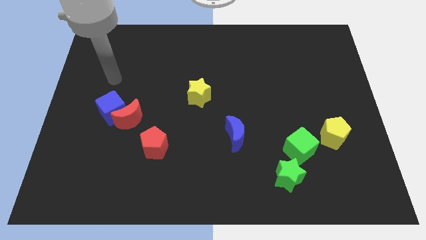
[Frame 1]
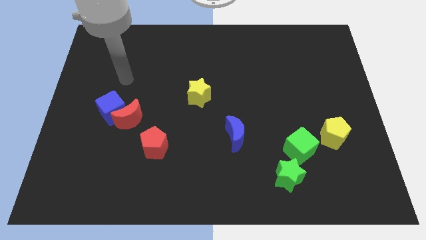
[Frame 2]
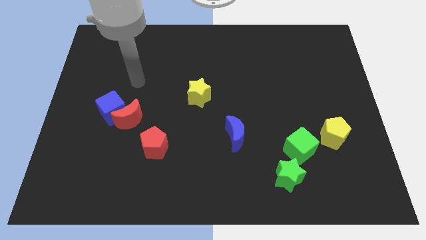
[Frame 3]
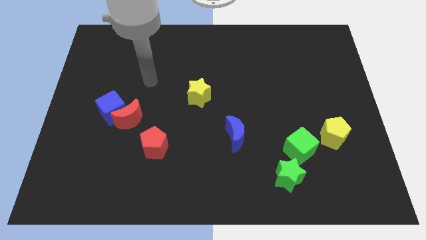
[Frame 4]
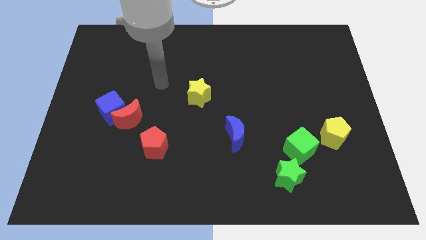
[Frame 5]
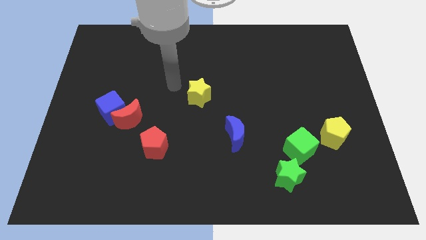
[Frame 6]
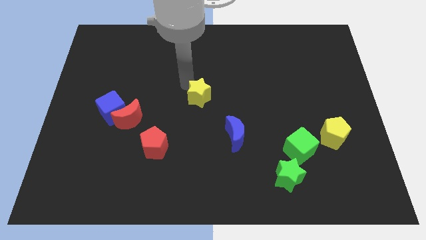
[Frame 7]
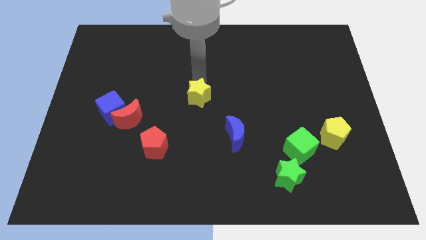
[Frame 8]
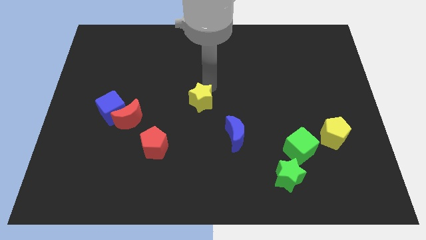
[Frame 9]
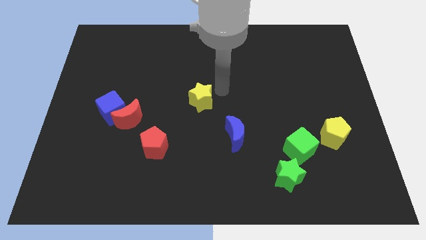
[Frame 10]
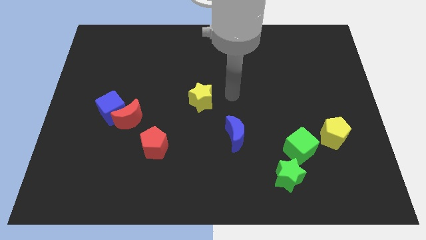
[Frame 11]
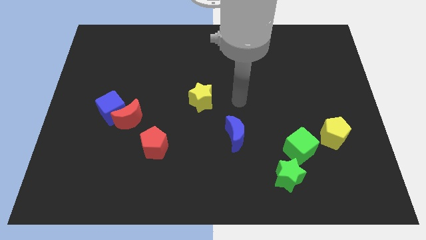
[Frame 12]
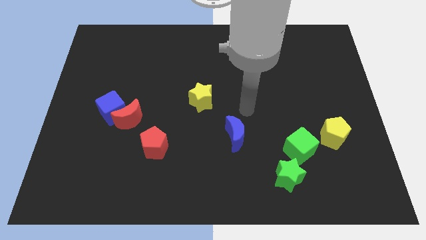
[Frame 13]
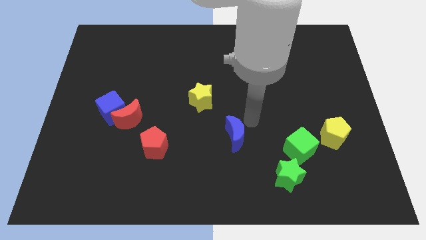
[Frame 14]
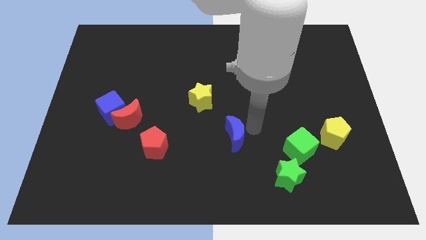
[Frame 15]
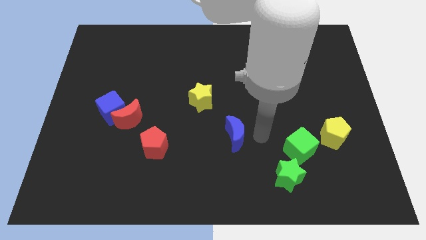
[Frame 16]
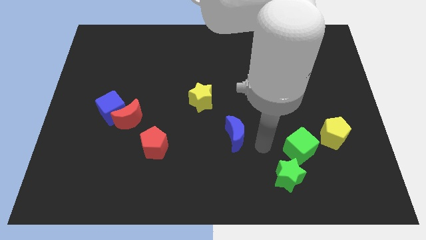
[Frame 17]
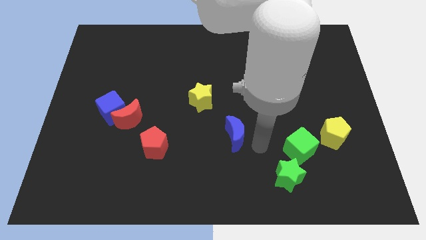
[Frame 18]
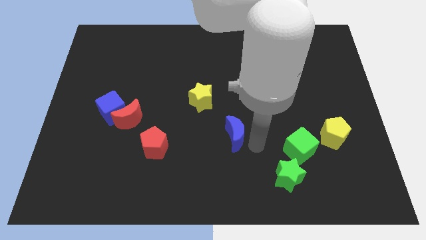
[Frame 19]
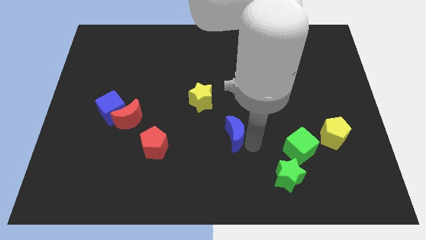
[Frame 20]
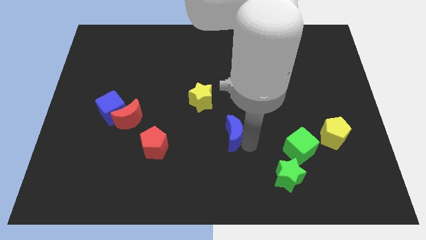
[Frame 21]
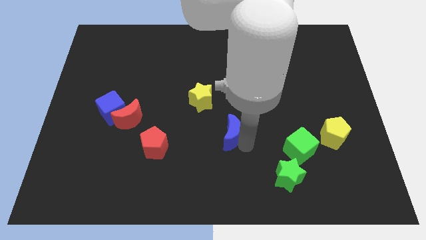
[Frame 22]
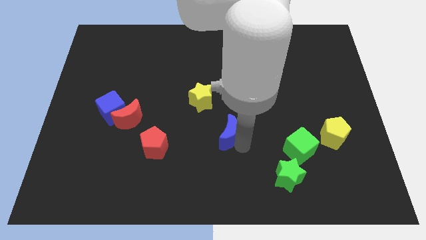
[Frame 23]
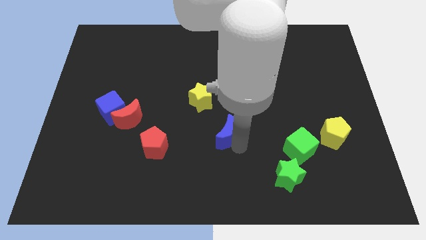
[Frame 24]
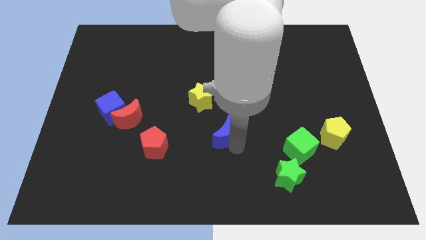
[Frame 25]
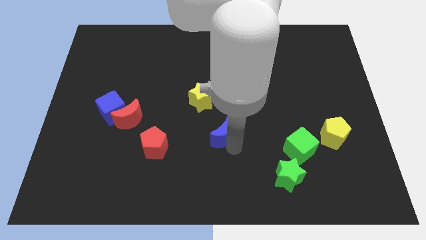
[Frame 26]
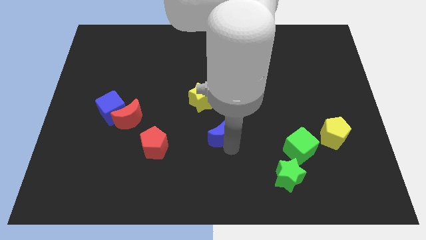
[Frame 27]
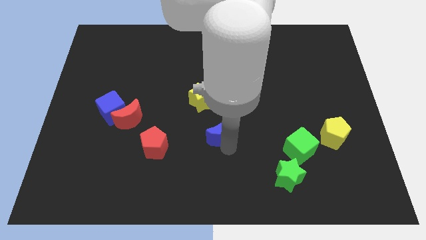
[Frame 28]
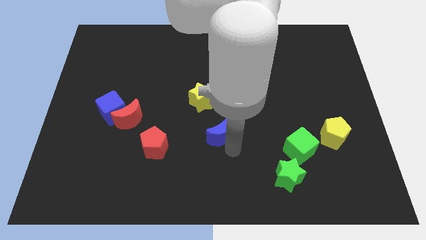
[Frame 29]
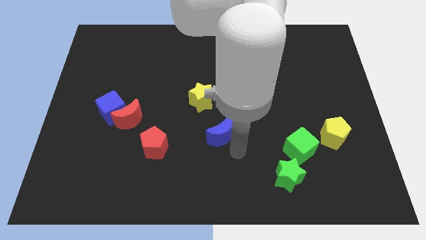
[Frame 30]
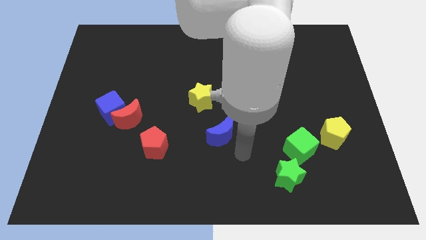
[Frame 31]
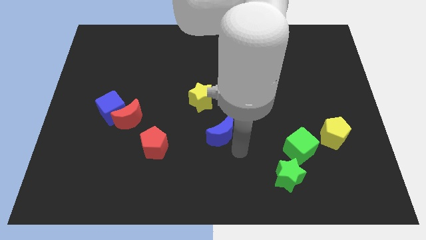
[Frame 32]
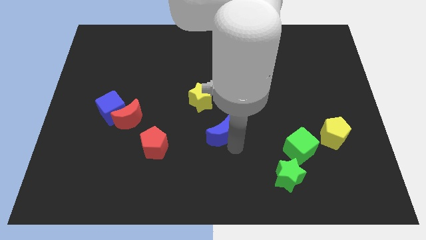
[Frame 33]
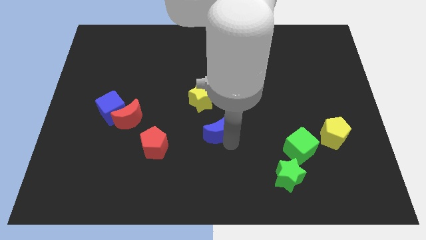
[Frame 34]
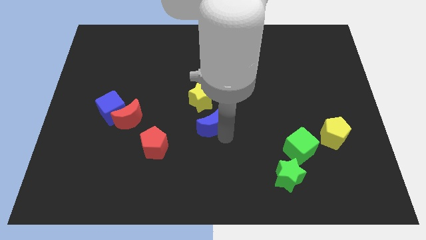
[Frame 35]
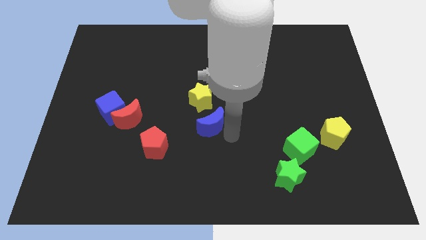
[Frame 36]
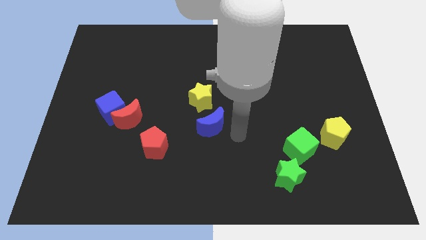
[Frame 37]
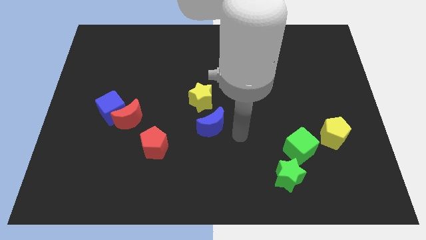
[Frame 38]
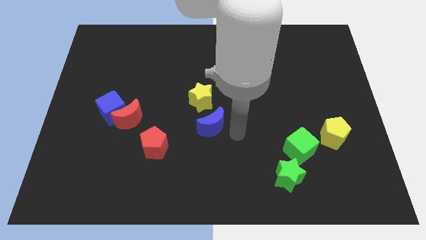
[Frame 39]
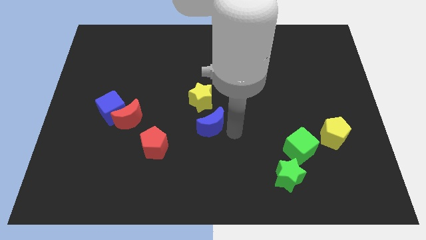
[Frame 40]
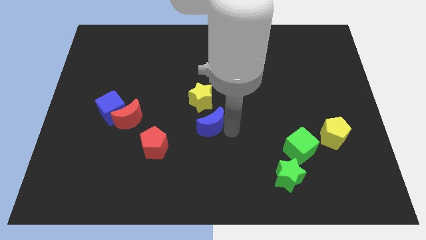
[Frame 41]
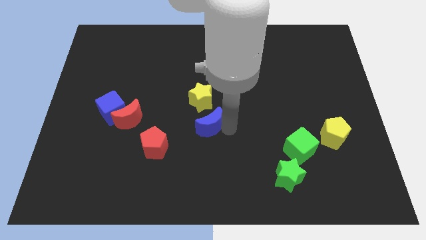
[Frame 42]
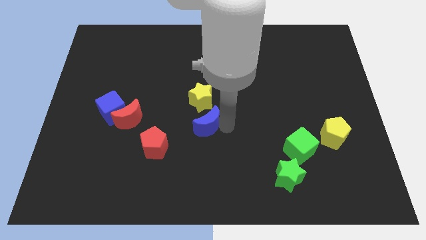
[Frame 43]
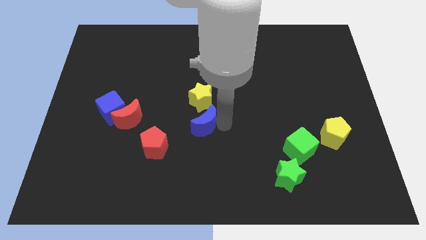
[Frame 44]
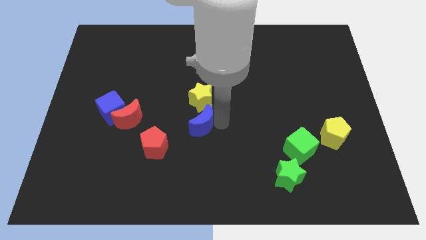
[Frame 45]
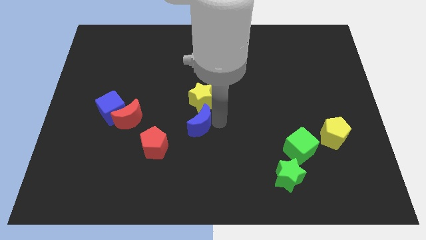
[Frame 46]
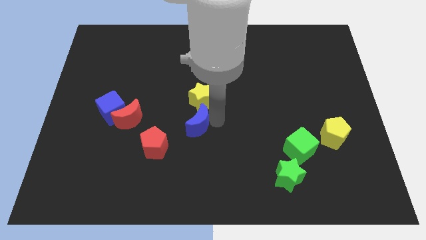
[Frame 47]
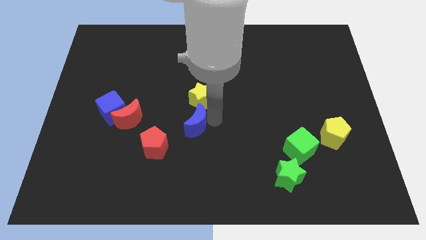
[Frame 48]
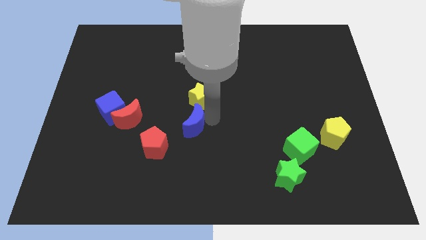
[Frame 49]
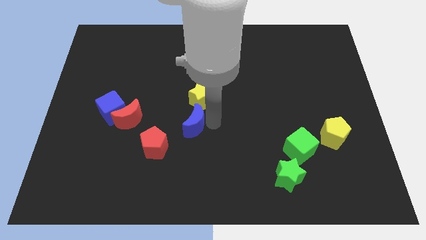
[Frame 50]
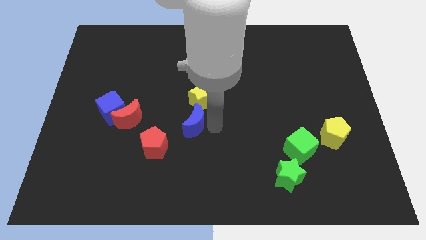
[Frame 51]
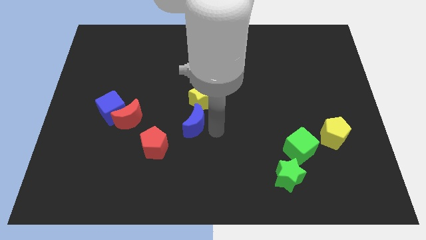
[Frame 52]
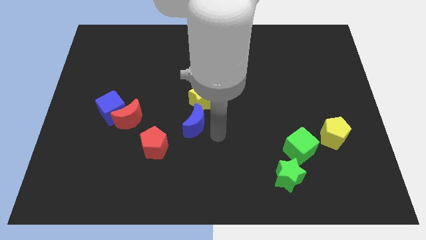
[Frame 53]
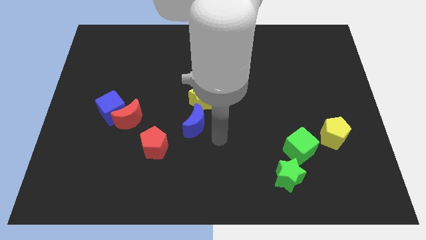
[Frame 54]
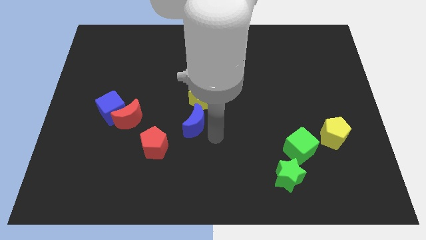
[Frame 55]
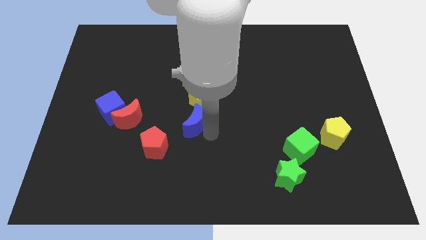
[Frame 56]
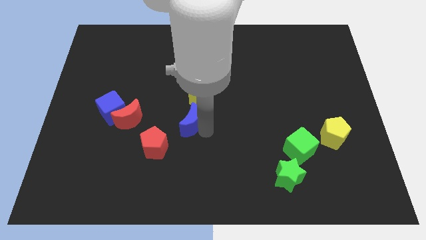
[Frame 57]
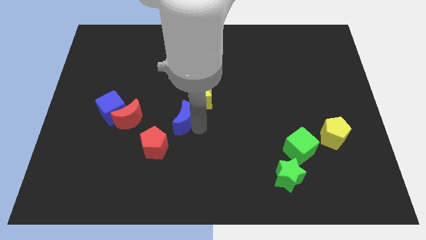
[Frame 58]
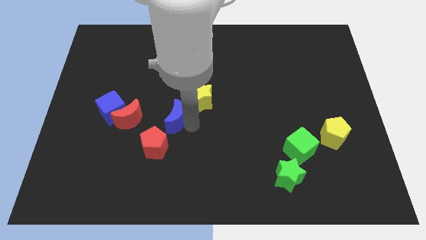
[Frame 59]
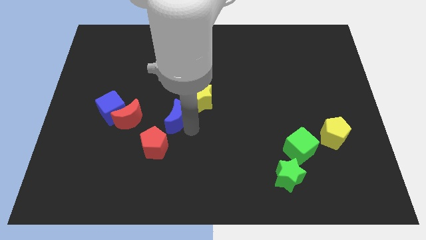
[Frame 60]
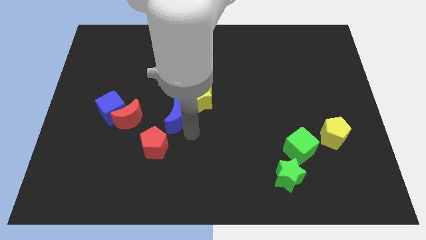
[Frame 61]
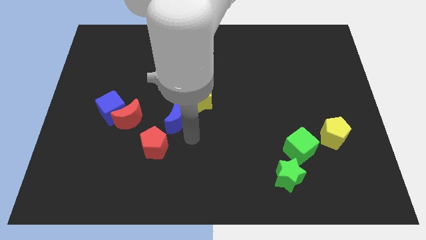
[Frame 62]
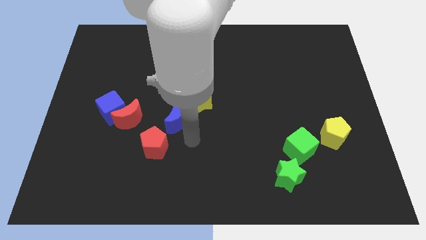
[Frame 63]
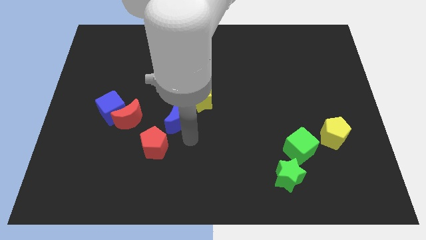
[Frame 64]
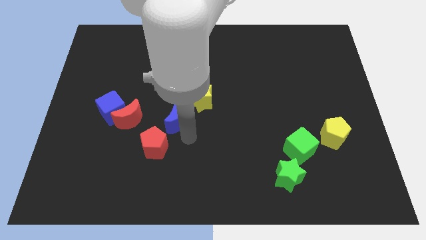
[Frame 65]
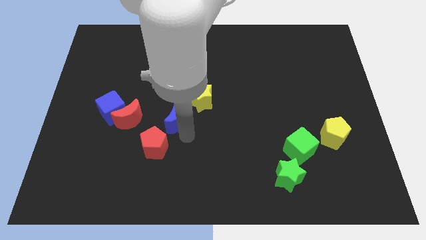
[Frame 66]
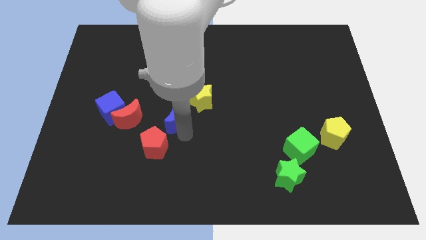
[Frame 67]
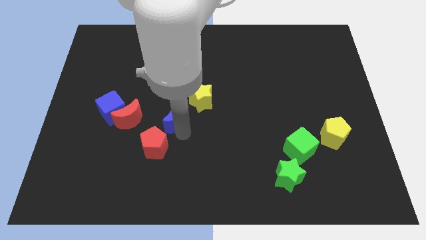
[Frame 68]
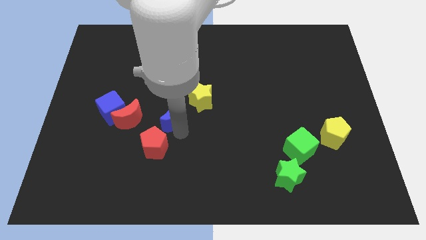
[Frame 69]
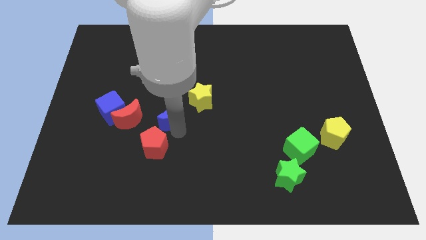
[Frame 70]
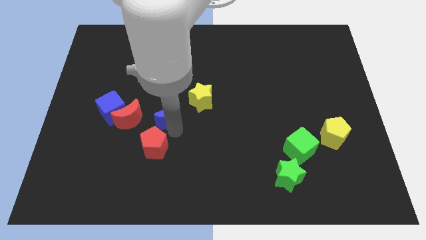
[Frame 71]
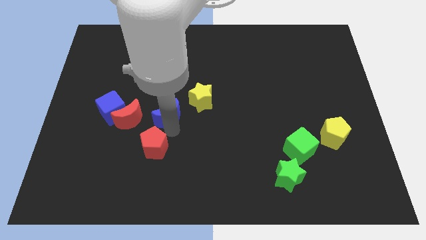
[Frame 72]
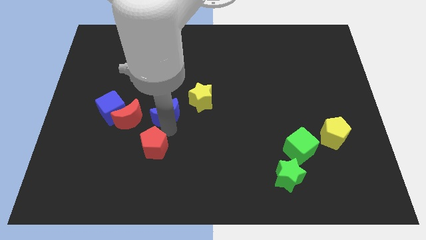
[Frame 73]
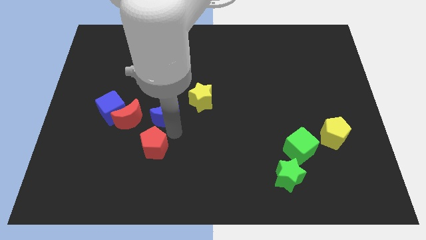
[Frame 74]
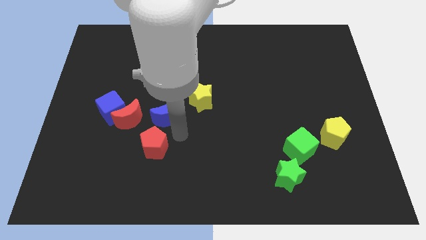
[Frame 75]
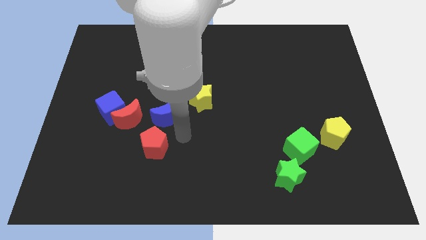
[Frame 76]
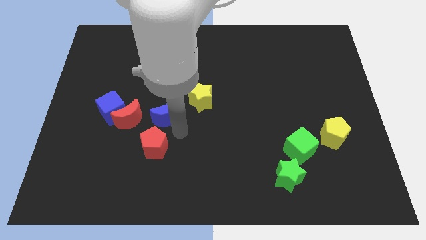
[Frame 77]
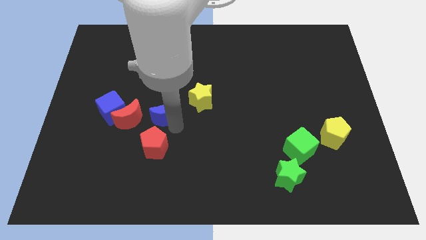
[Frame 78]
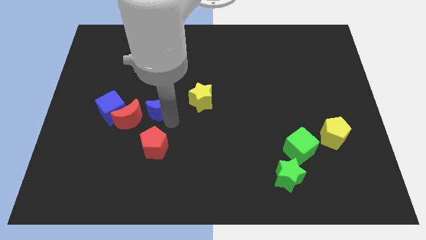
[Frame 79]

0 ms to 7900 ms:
move the blue moon to the top right side of the red moon
